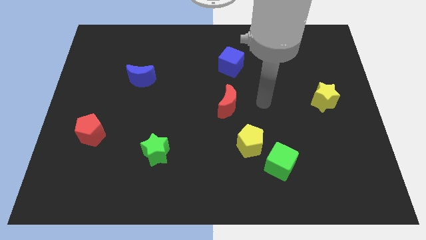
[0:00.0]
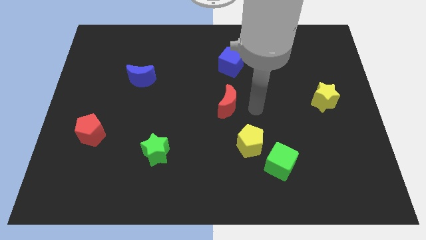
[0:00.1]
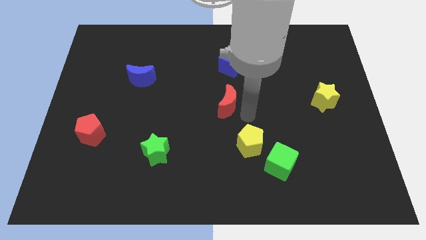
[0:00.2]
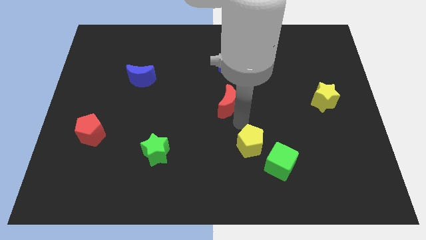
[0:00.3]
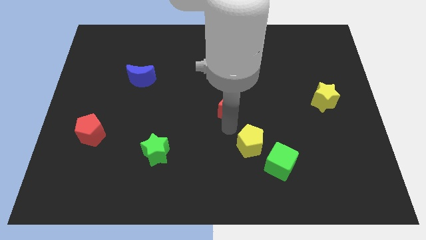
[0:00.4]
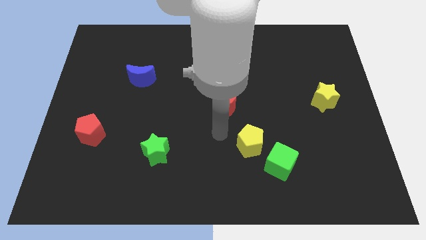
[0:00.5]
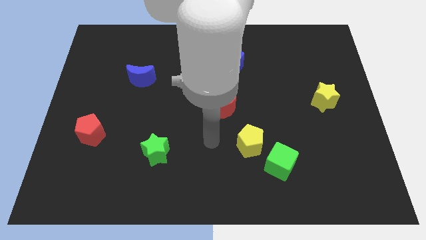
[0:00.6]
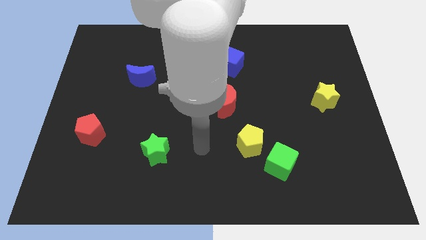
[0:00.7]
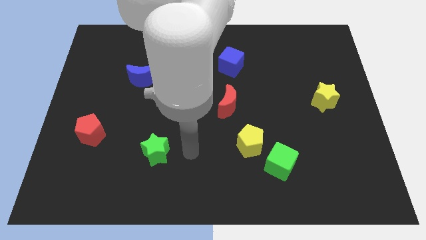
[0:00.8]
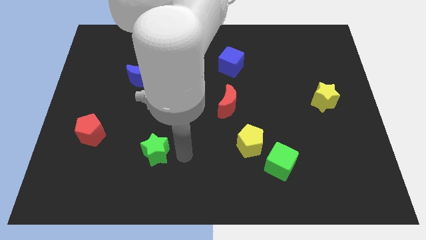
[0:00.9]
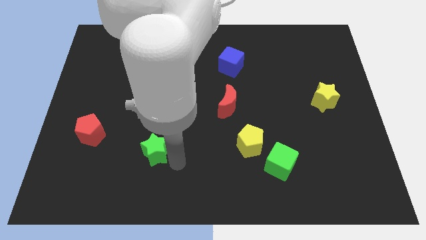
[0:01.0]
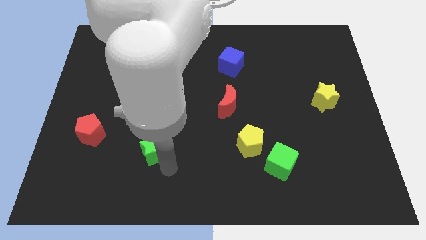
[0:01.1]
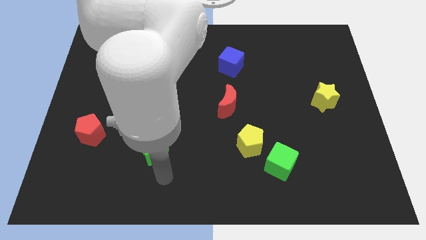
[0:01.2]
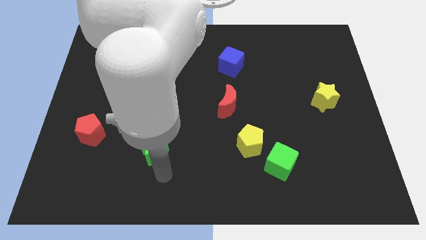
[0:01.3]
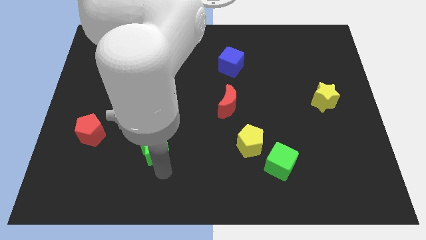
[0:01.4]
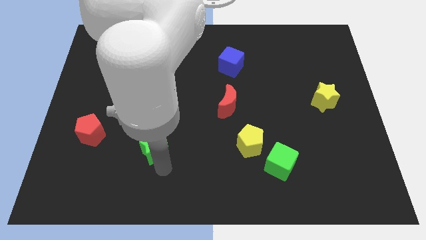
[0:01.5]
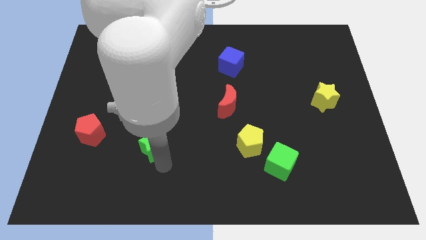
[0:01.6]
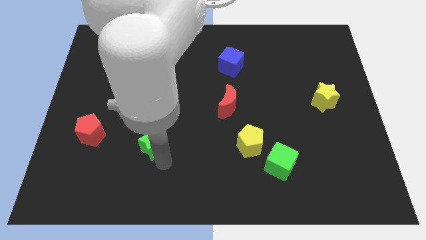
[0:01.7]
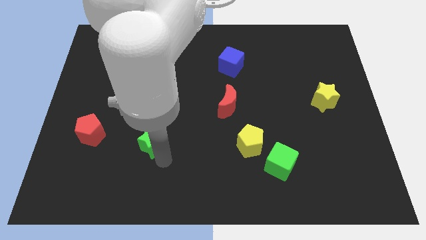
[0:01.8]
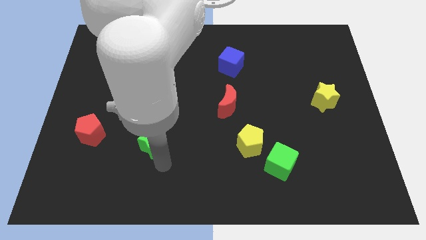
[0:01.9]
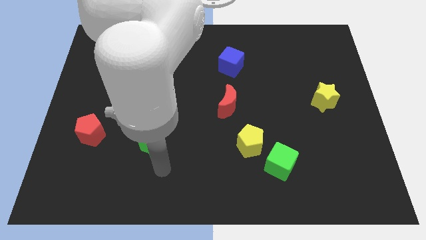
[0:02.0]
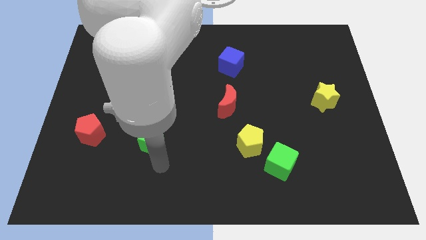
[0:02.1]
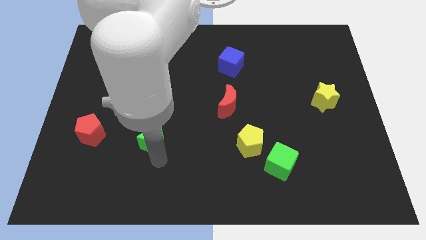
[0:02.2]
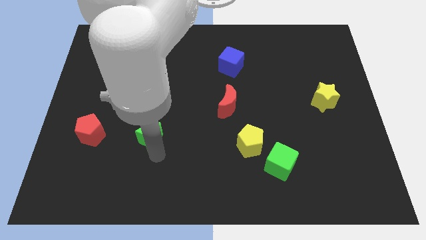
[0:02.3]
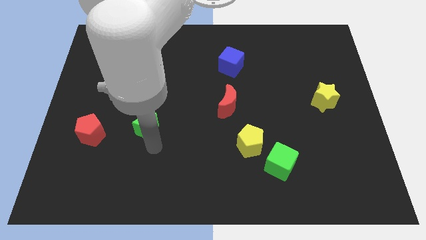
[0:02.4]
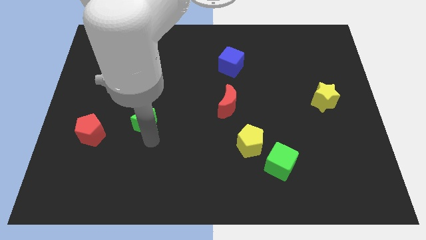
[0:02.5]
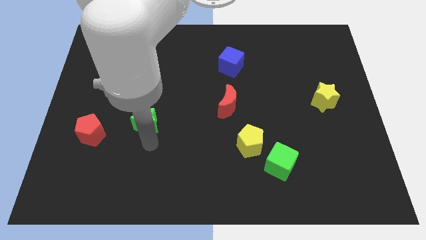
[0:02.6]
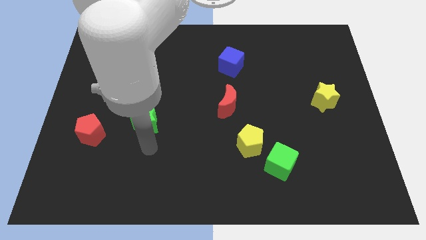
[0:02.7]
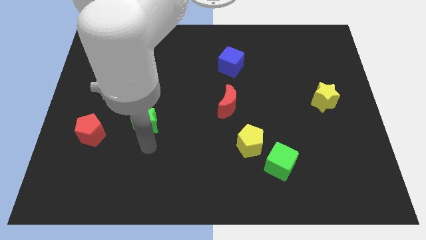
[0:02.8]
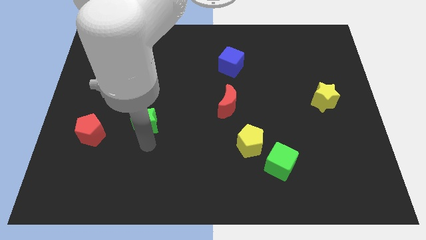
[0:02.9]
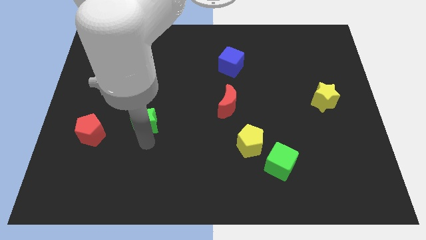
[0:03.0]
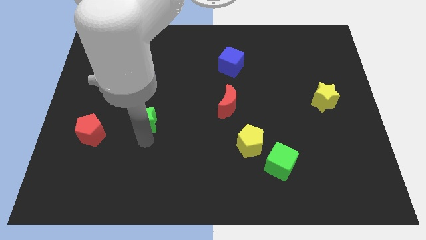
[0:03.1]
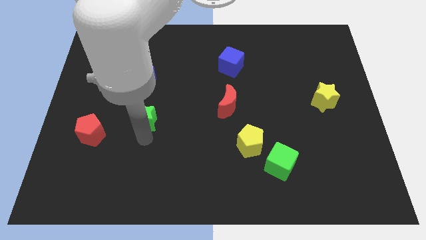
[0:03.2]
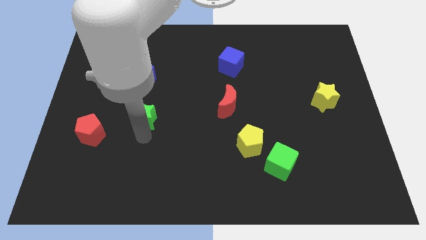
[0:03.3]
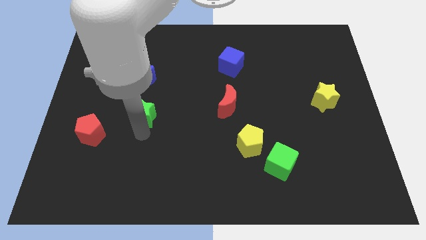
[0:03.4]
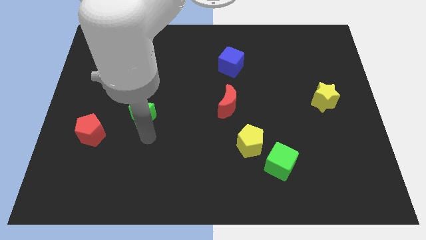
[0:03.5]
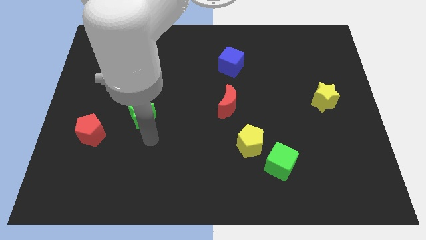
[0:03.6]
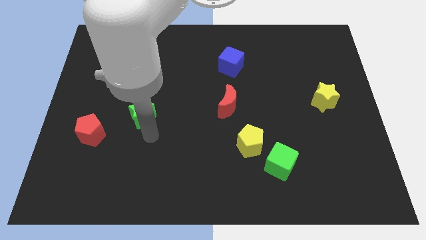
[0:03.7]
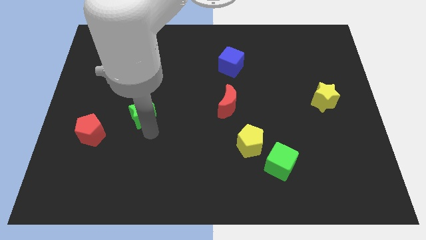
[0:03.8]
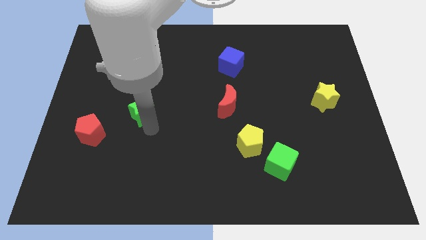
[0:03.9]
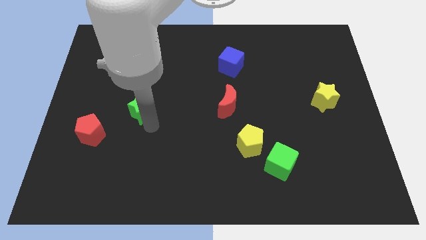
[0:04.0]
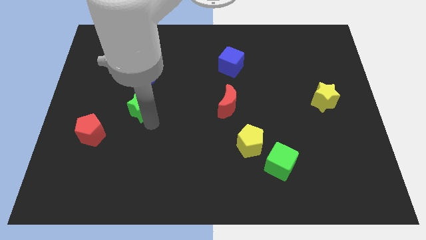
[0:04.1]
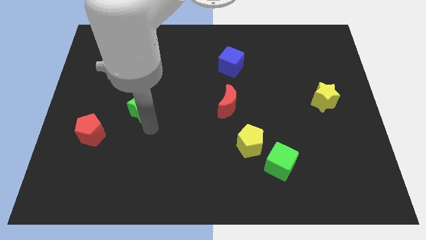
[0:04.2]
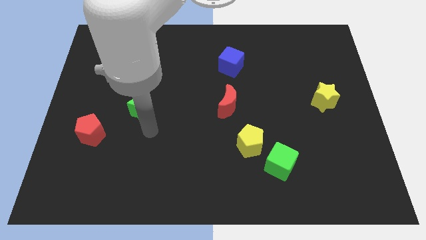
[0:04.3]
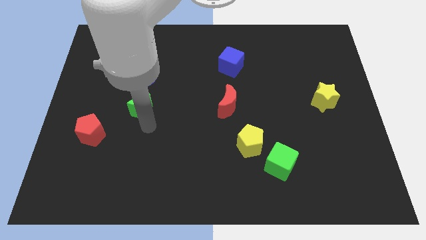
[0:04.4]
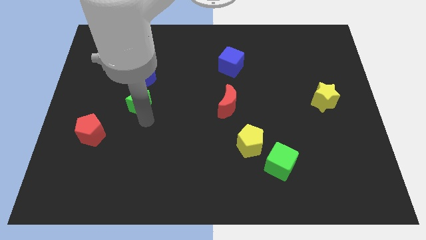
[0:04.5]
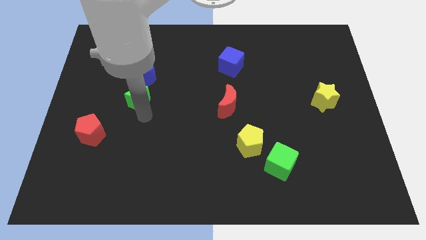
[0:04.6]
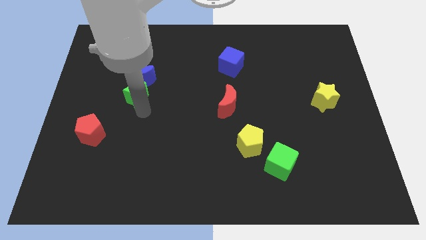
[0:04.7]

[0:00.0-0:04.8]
put the green star next to the blue moon

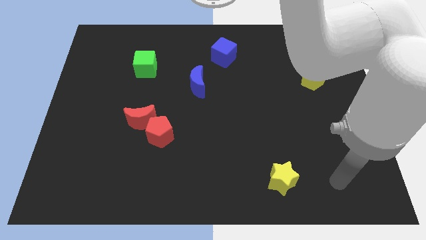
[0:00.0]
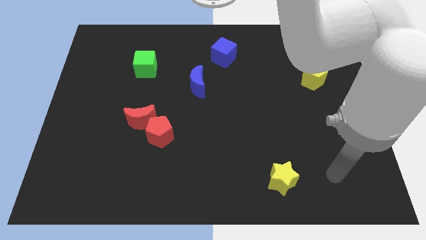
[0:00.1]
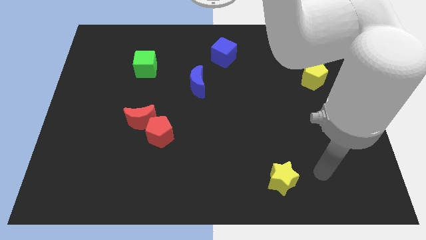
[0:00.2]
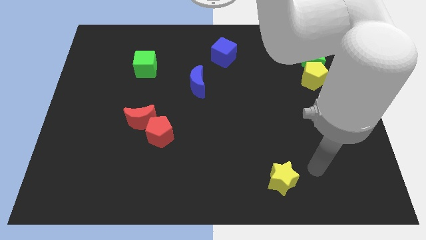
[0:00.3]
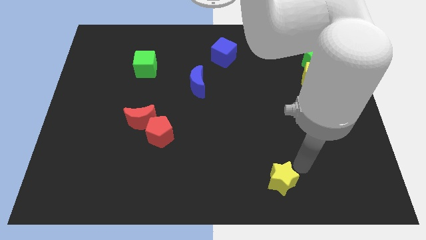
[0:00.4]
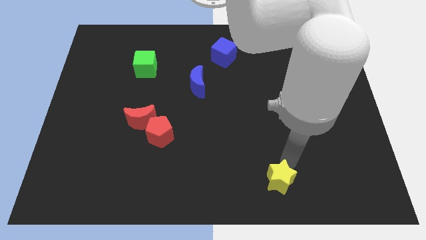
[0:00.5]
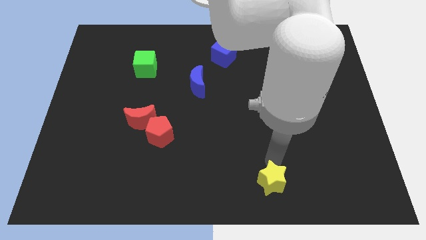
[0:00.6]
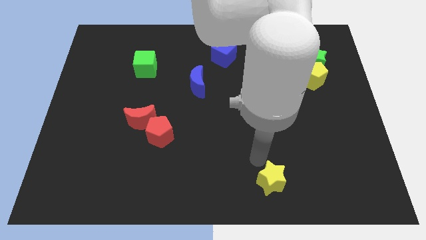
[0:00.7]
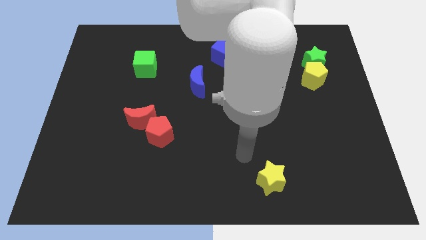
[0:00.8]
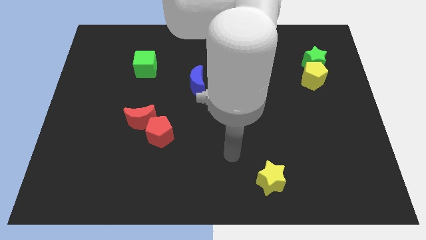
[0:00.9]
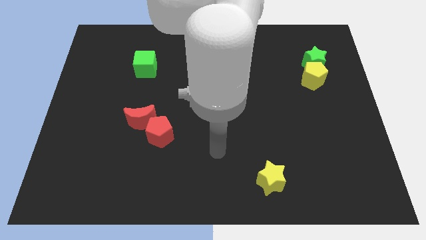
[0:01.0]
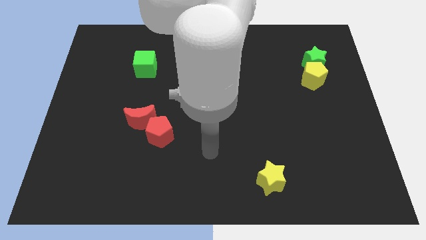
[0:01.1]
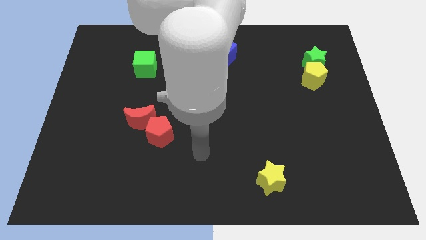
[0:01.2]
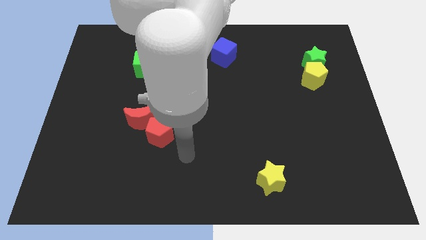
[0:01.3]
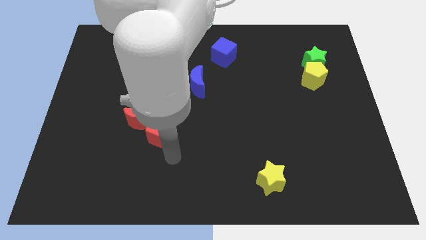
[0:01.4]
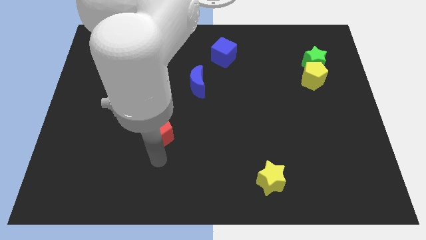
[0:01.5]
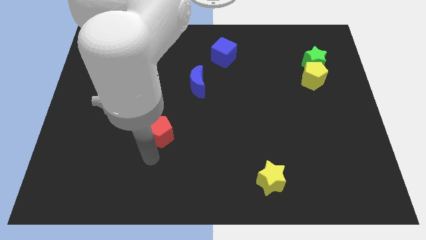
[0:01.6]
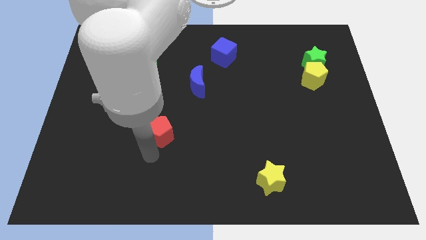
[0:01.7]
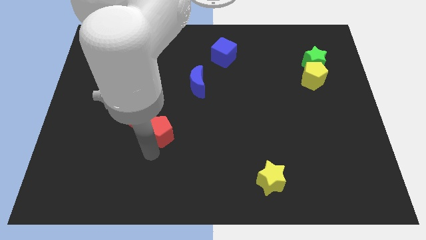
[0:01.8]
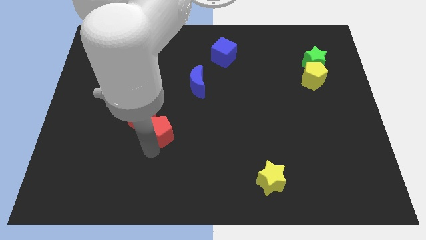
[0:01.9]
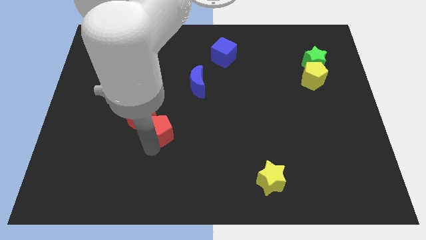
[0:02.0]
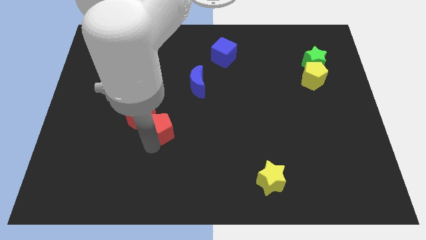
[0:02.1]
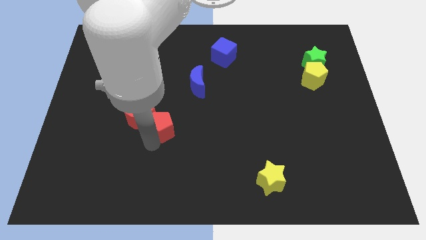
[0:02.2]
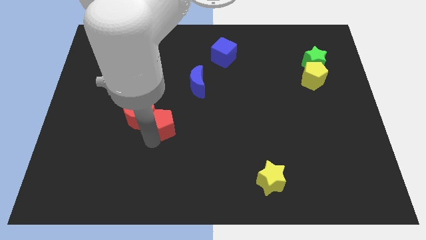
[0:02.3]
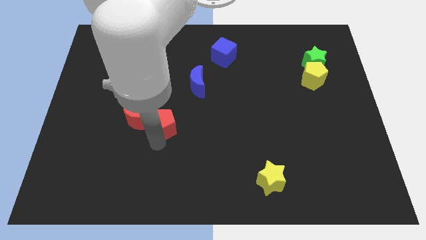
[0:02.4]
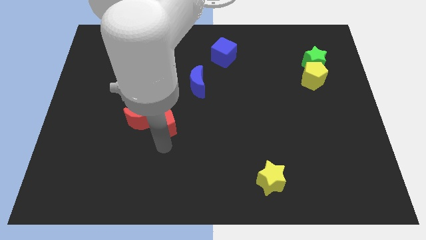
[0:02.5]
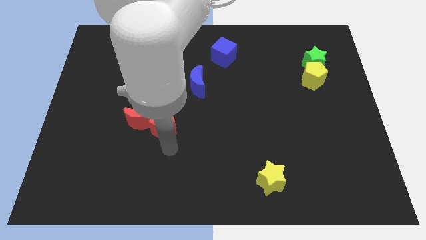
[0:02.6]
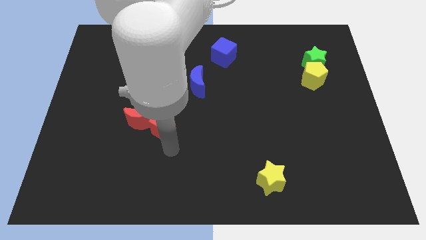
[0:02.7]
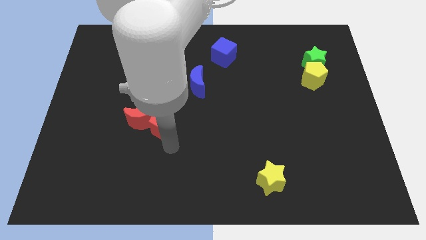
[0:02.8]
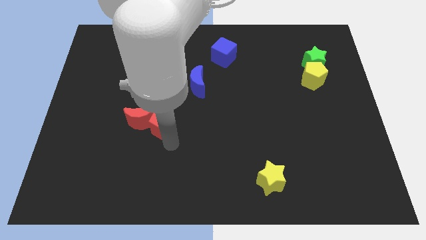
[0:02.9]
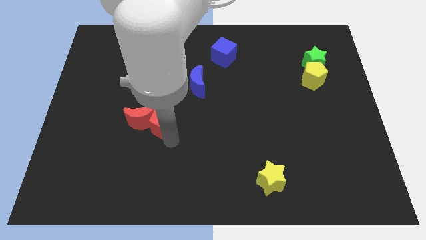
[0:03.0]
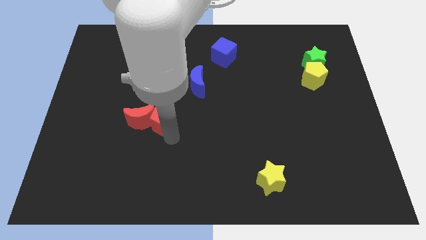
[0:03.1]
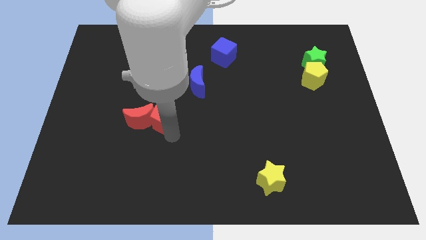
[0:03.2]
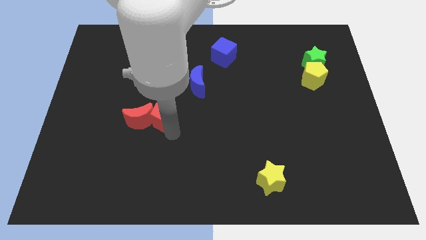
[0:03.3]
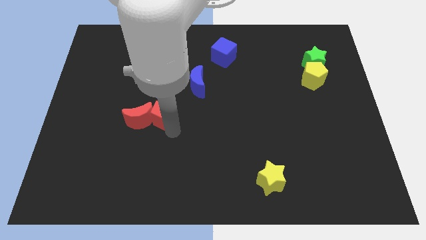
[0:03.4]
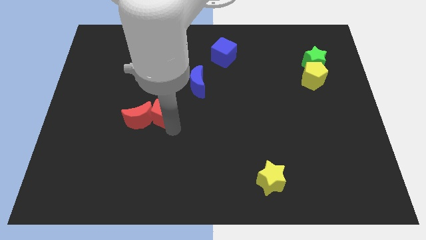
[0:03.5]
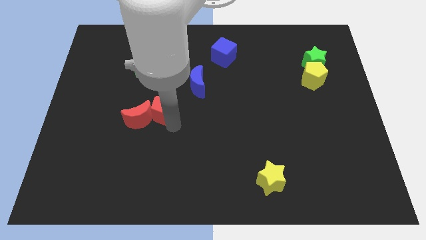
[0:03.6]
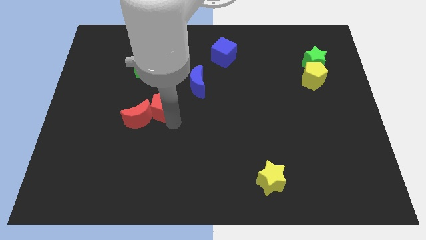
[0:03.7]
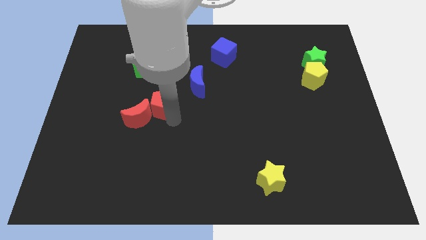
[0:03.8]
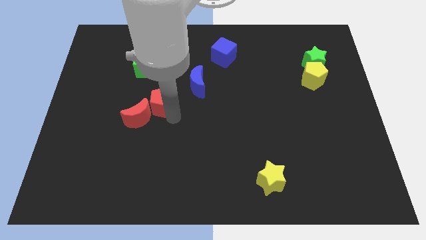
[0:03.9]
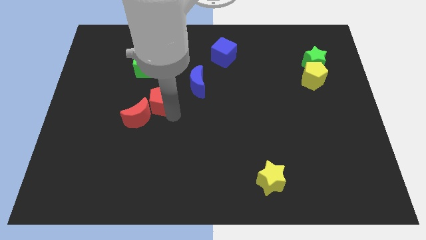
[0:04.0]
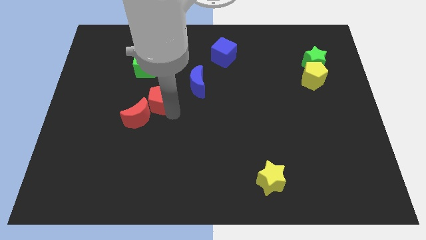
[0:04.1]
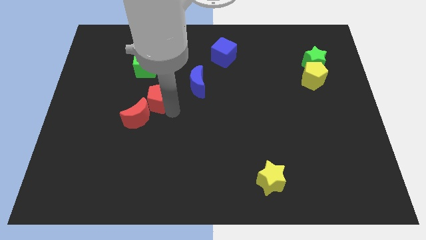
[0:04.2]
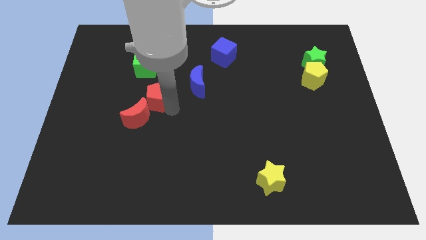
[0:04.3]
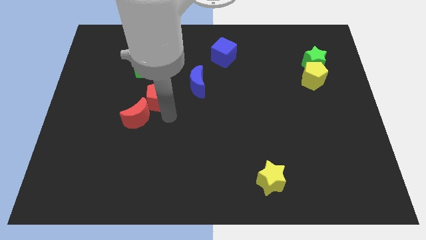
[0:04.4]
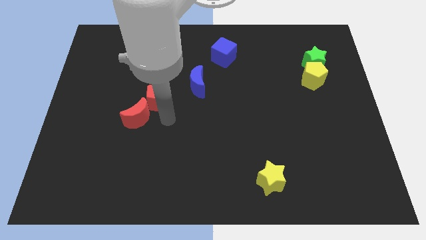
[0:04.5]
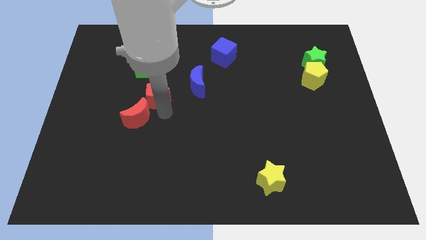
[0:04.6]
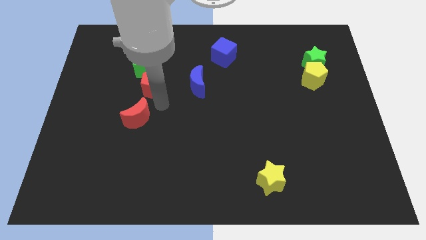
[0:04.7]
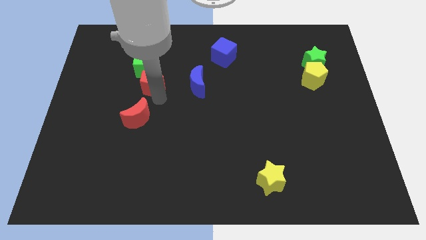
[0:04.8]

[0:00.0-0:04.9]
move the red pentagon to the green cube
